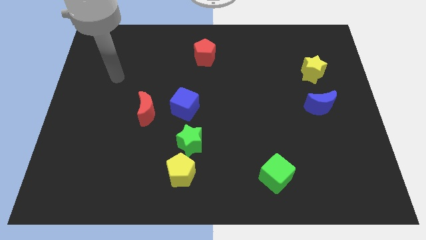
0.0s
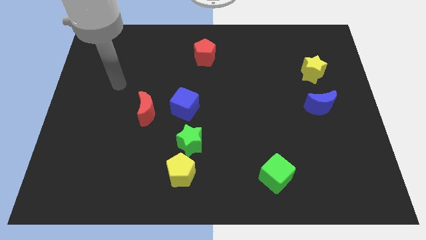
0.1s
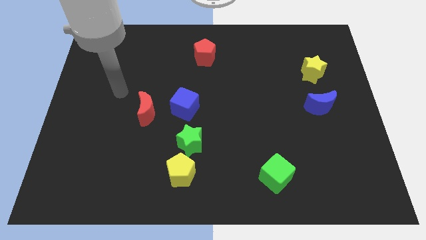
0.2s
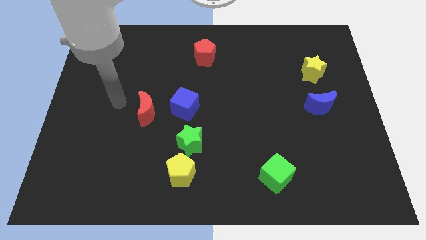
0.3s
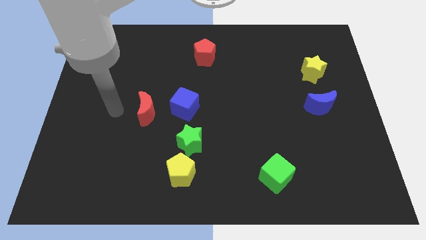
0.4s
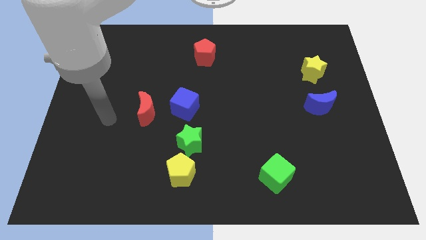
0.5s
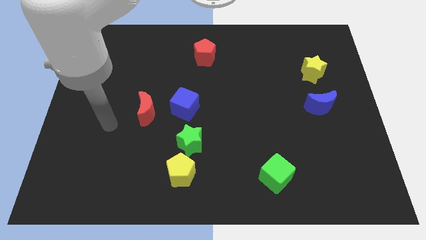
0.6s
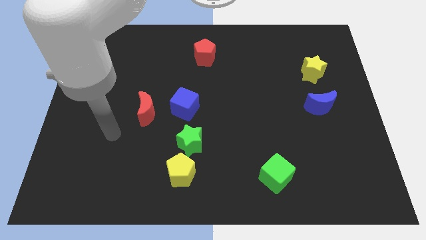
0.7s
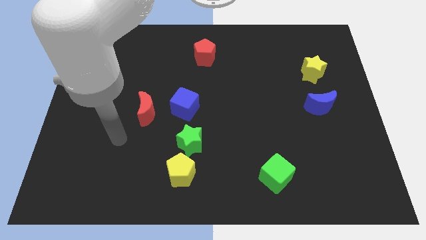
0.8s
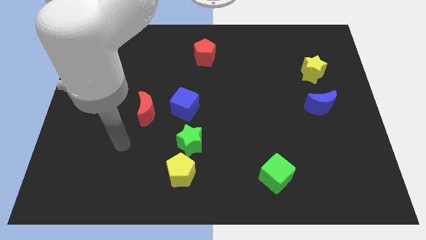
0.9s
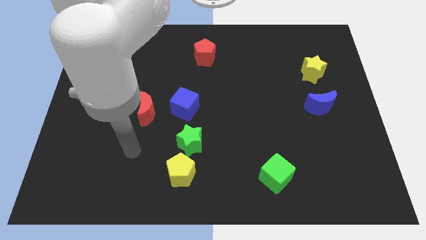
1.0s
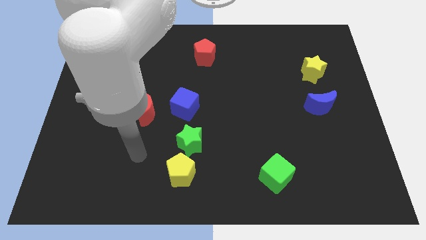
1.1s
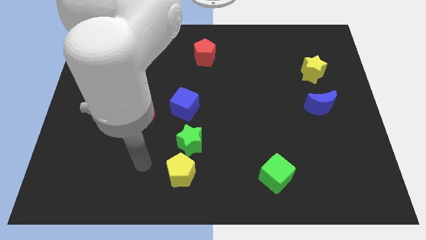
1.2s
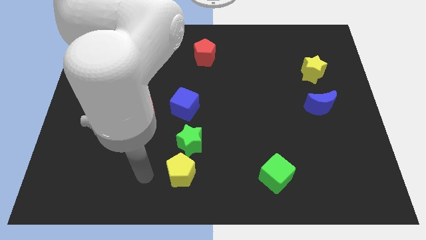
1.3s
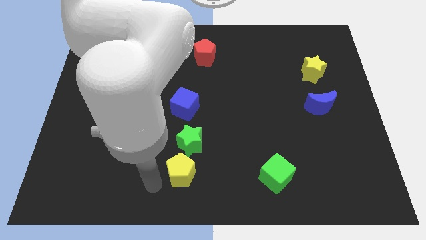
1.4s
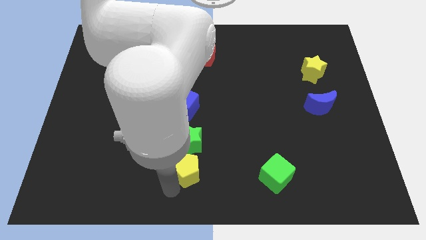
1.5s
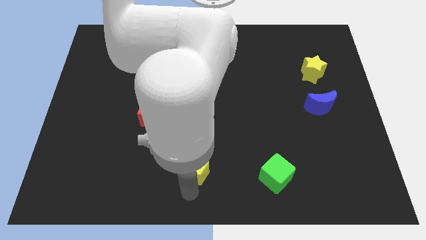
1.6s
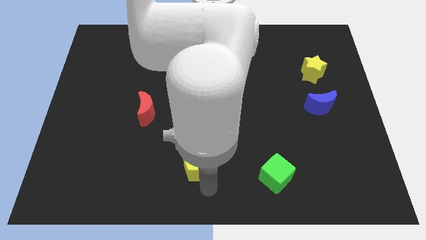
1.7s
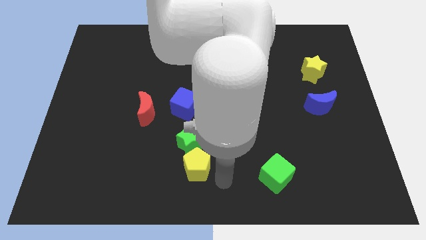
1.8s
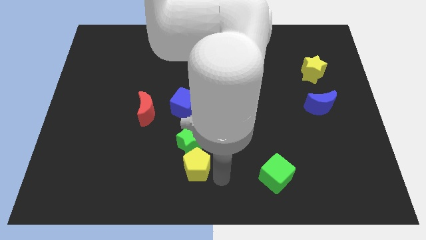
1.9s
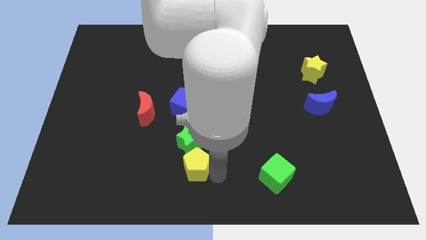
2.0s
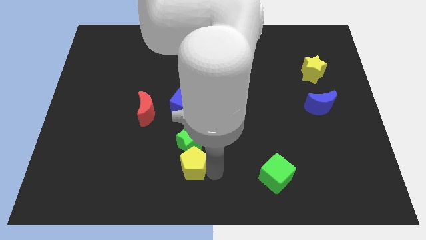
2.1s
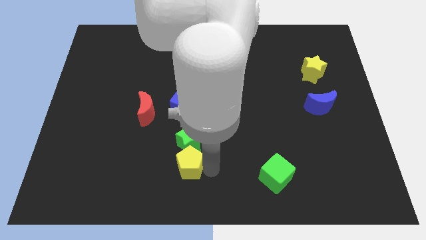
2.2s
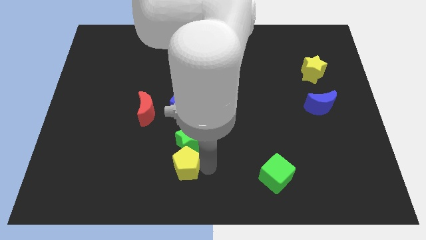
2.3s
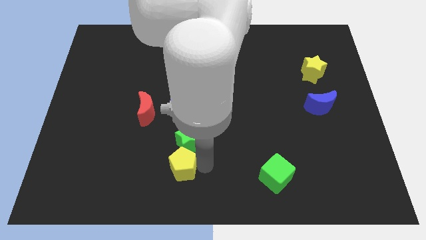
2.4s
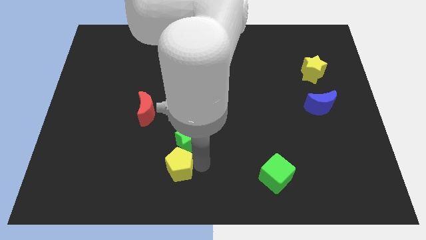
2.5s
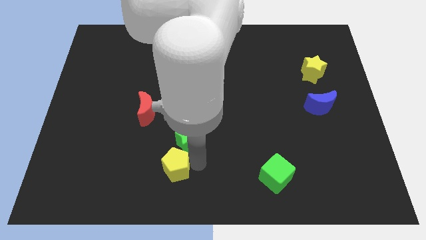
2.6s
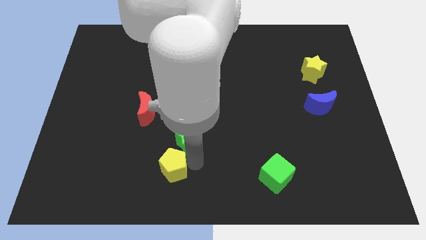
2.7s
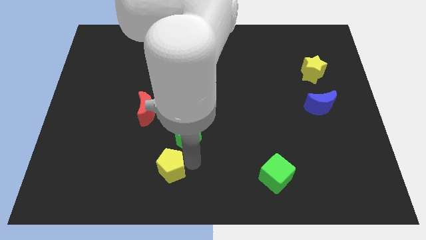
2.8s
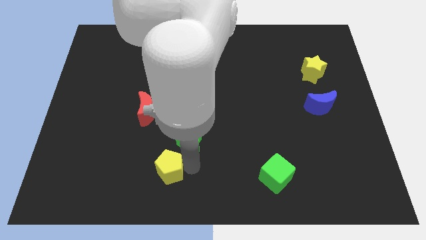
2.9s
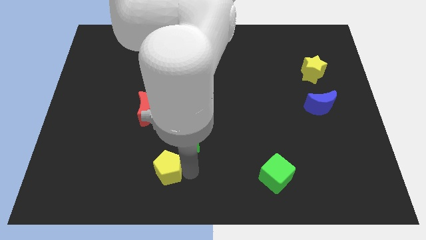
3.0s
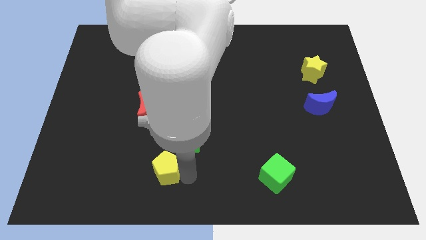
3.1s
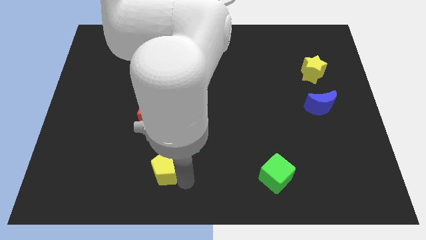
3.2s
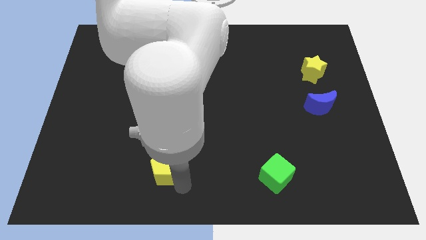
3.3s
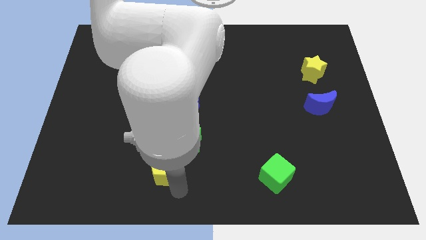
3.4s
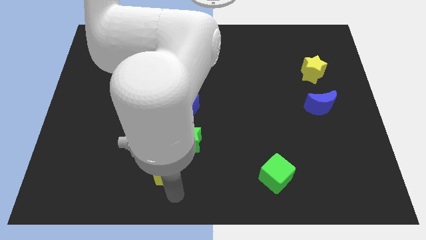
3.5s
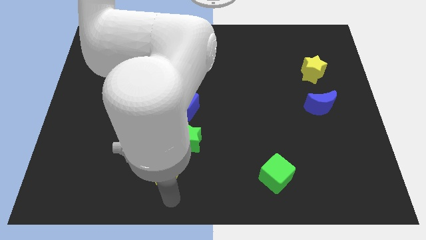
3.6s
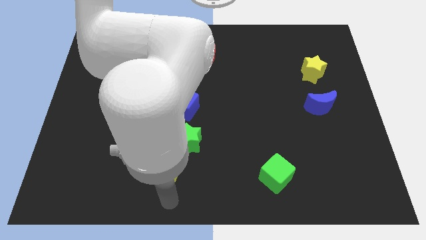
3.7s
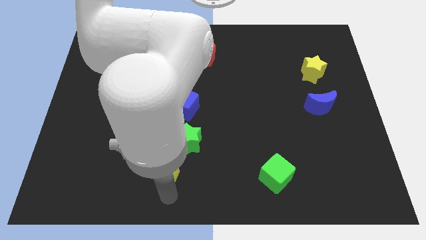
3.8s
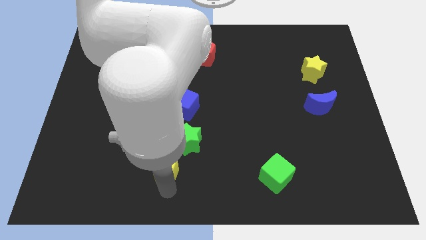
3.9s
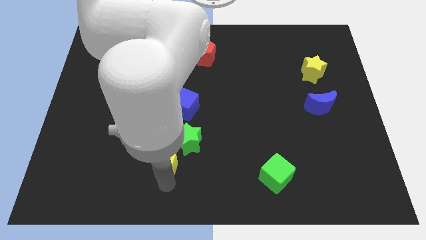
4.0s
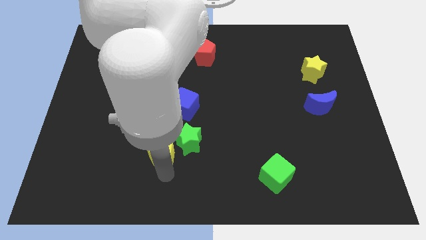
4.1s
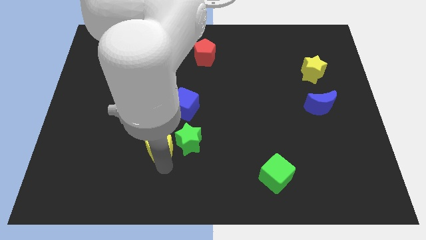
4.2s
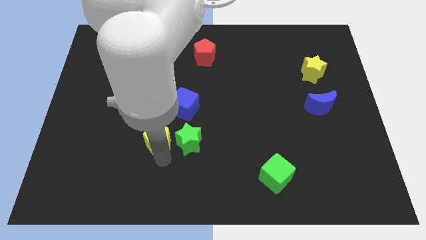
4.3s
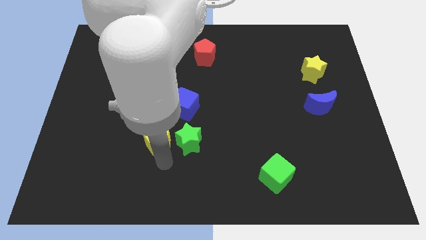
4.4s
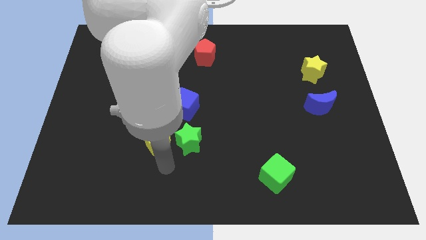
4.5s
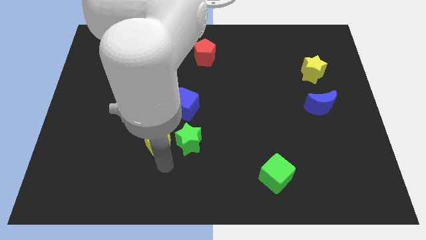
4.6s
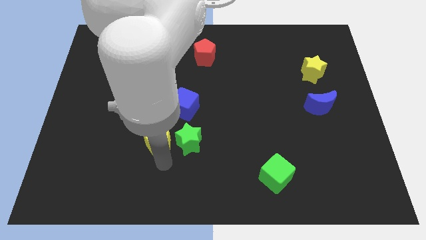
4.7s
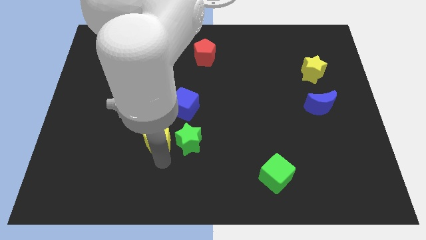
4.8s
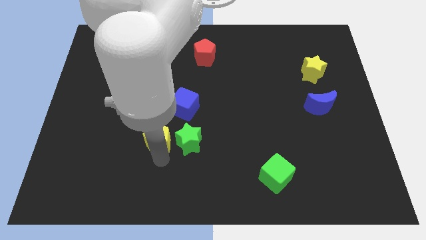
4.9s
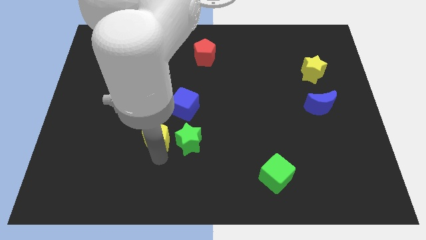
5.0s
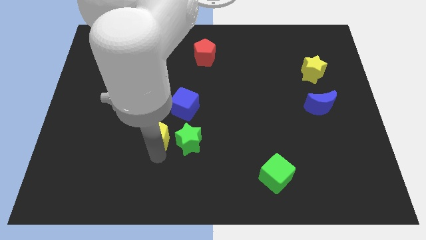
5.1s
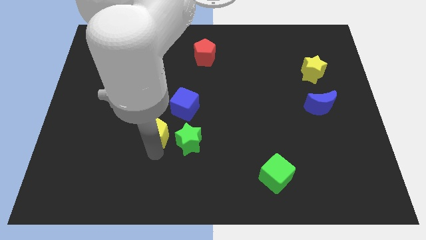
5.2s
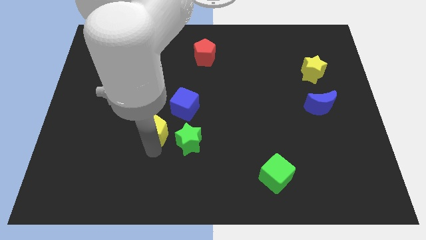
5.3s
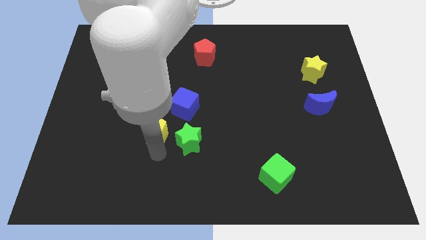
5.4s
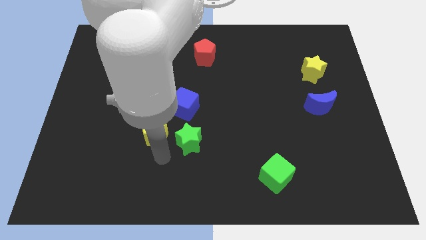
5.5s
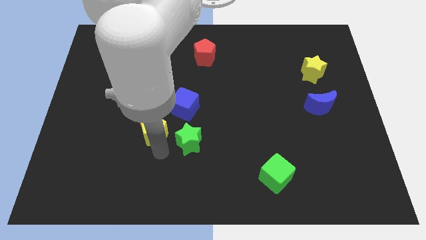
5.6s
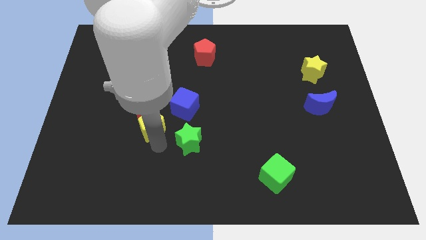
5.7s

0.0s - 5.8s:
move the yellow pentagon to the red moon

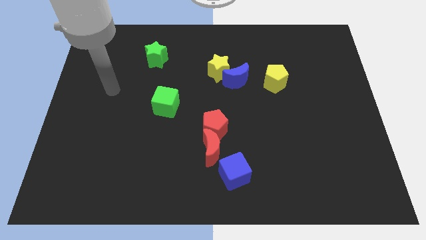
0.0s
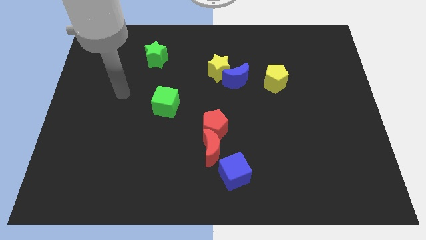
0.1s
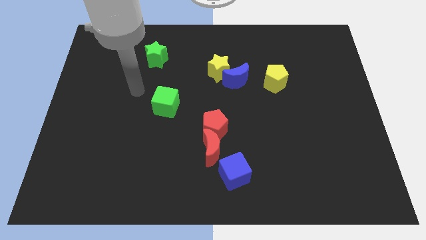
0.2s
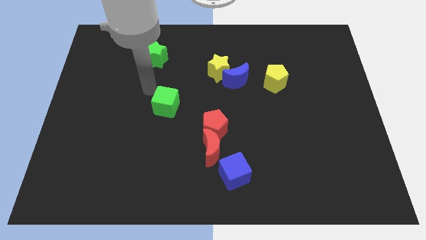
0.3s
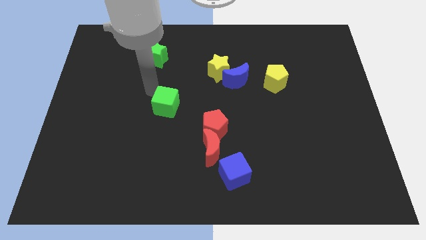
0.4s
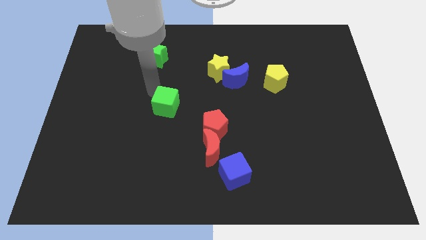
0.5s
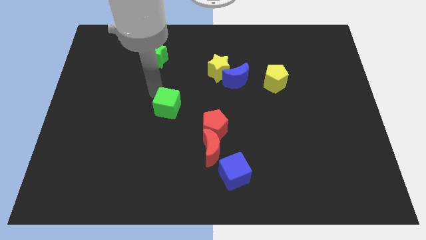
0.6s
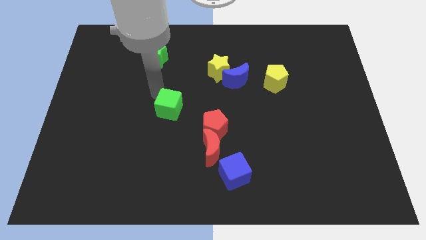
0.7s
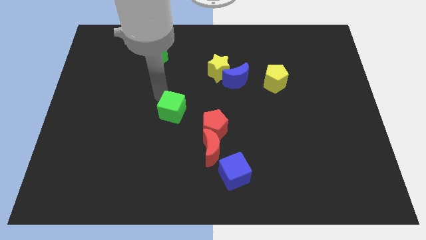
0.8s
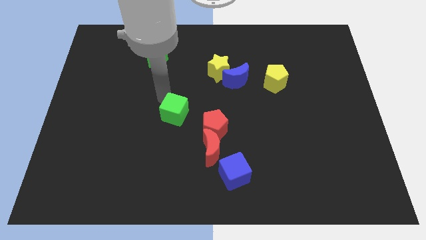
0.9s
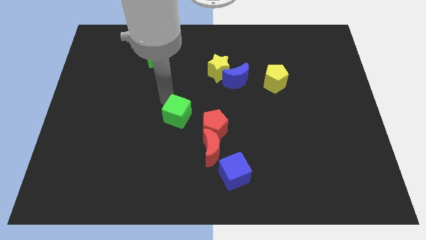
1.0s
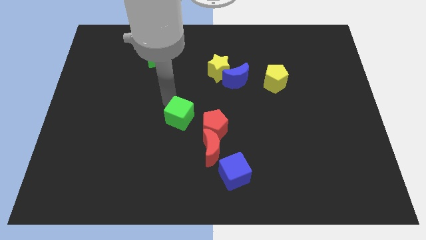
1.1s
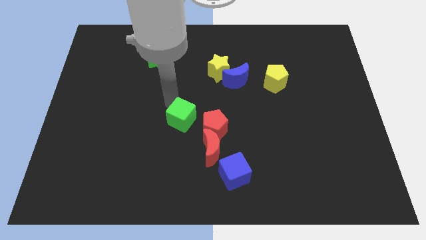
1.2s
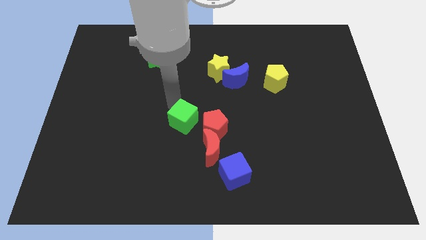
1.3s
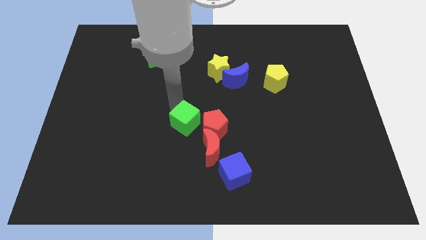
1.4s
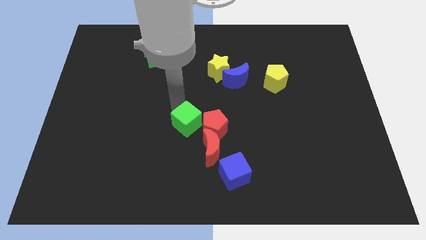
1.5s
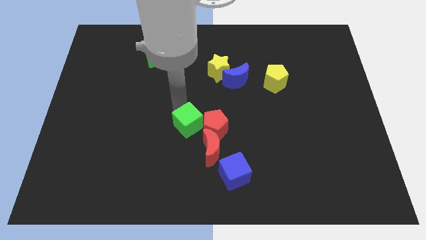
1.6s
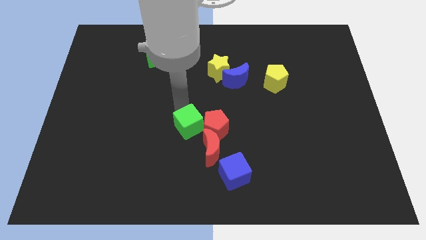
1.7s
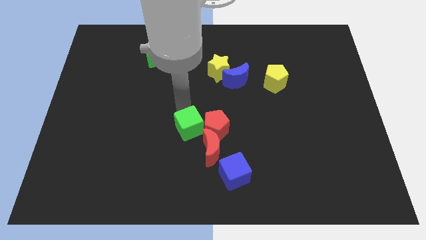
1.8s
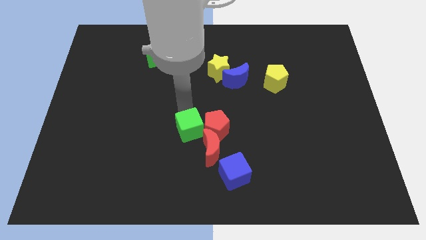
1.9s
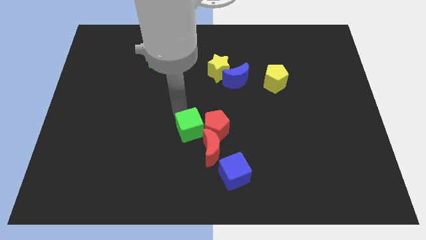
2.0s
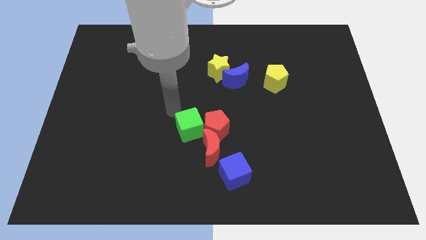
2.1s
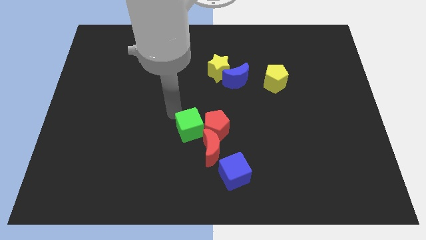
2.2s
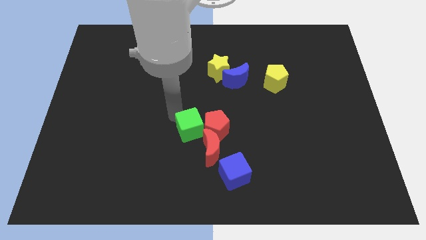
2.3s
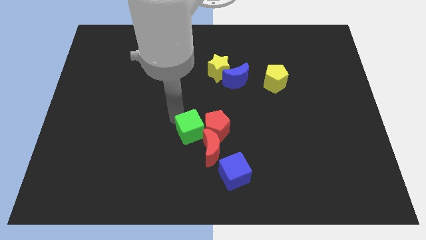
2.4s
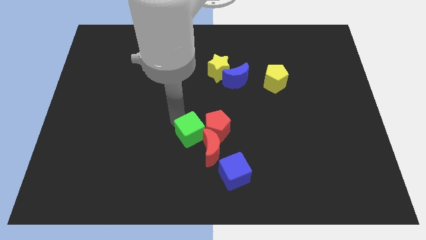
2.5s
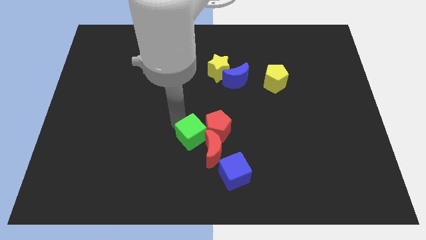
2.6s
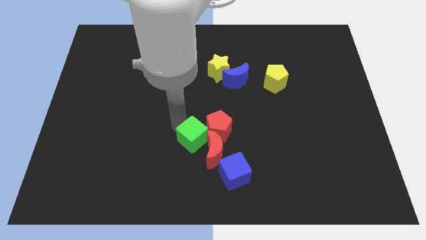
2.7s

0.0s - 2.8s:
push the green cube next to the red moon
